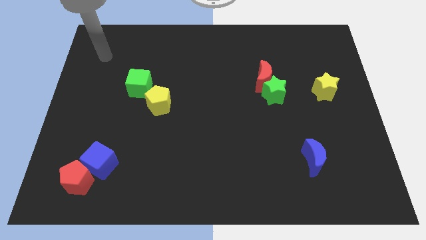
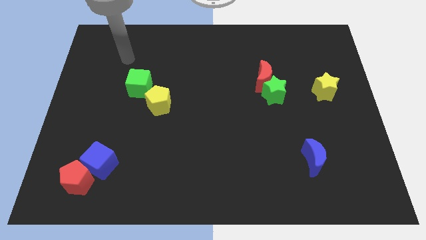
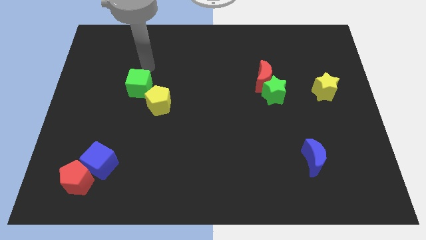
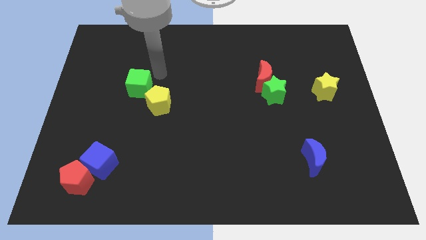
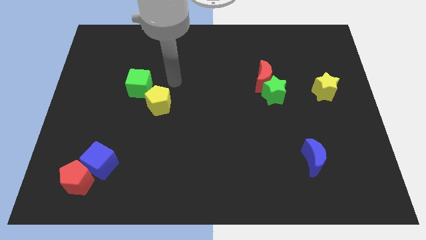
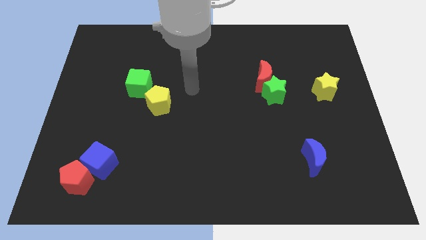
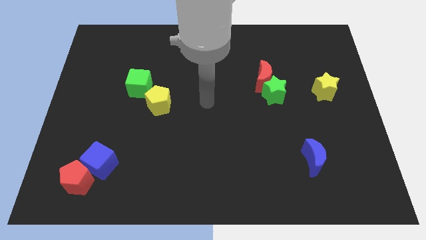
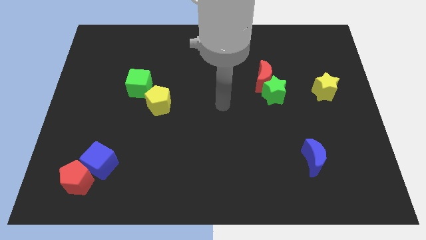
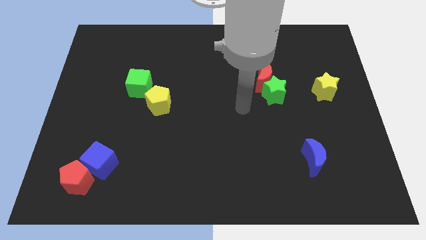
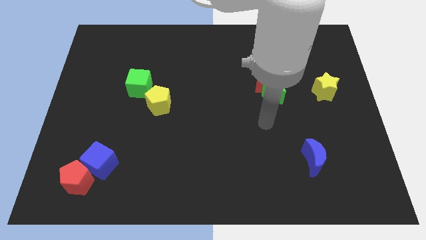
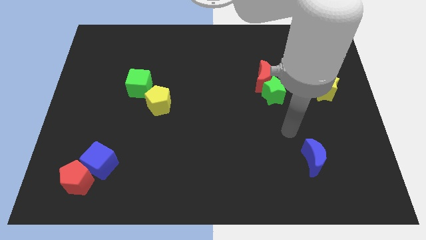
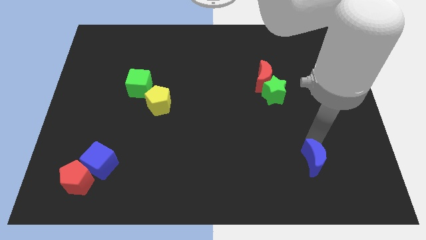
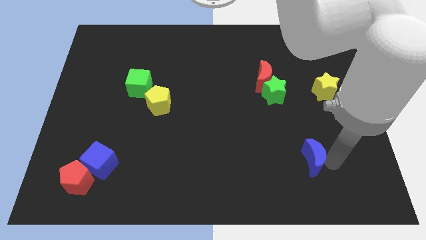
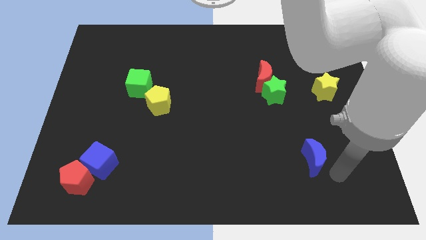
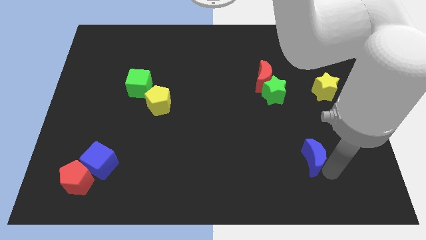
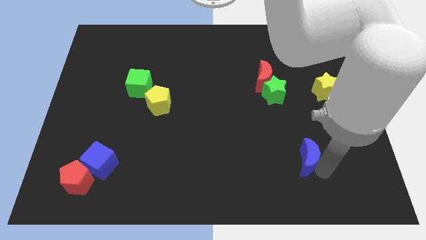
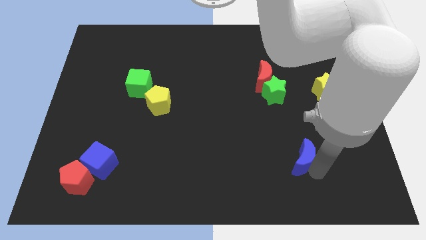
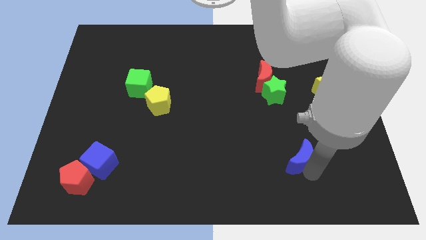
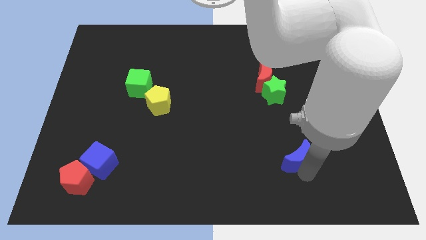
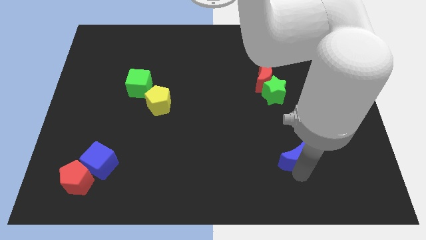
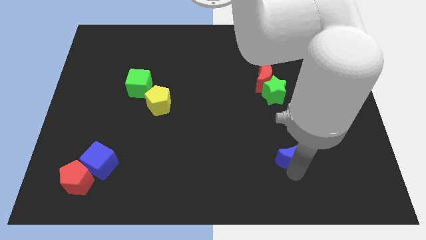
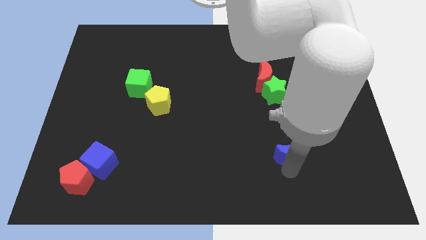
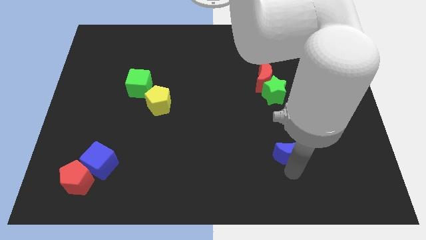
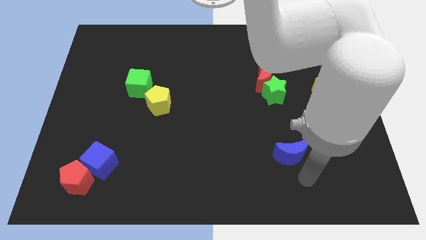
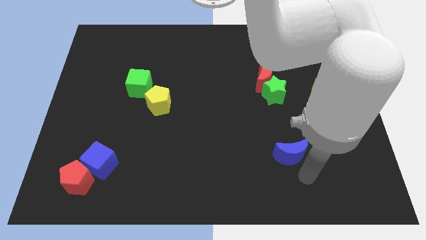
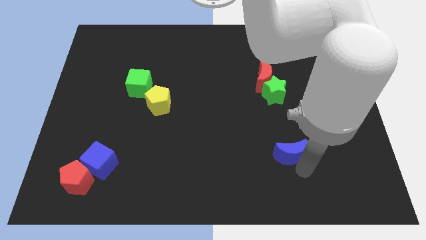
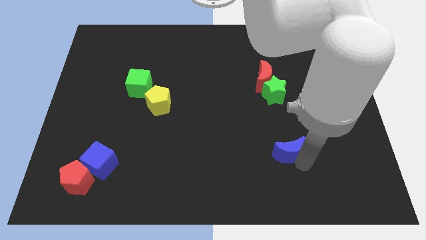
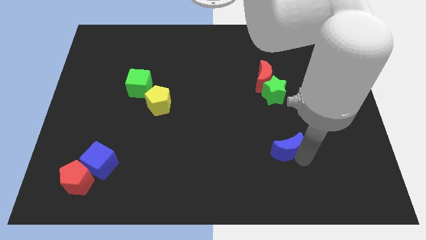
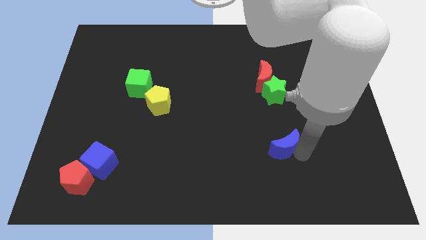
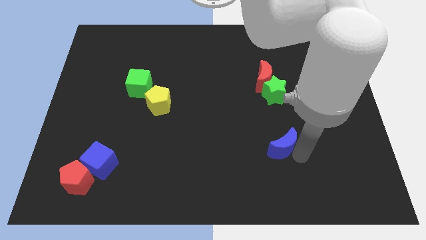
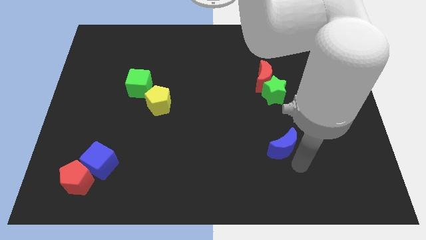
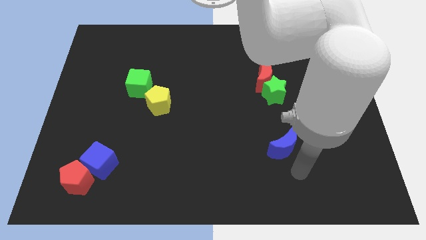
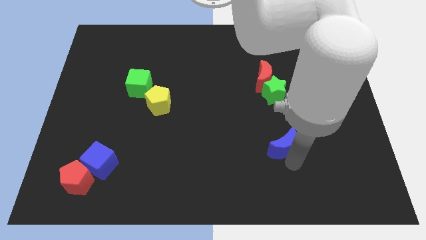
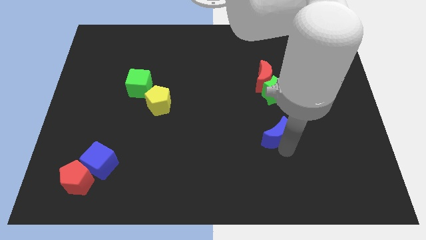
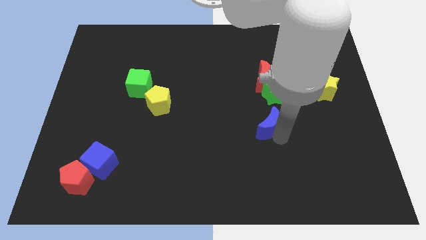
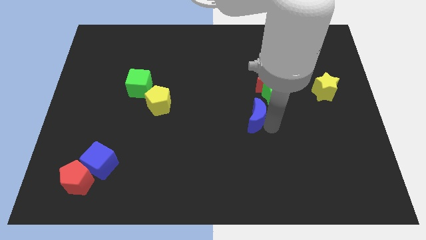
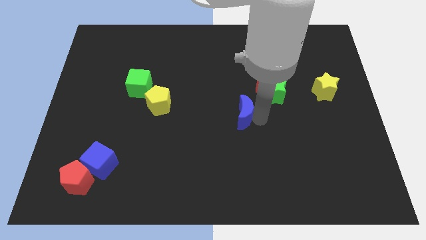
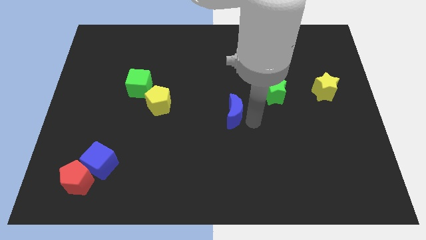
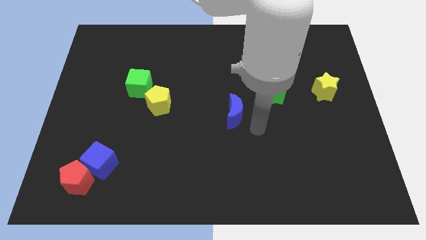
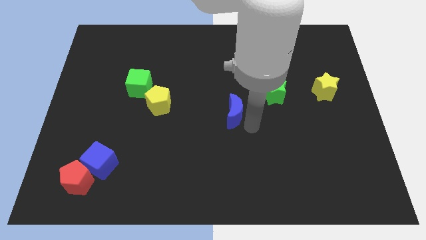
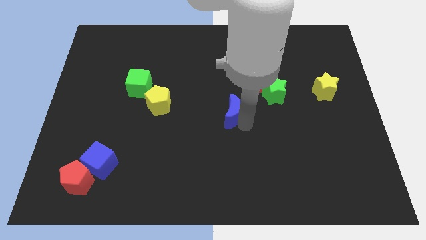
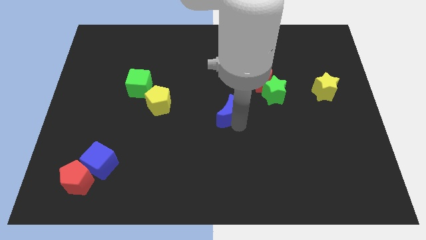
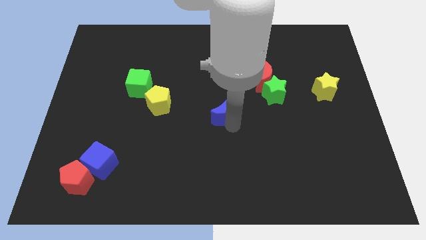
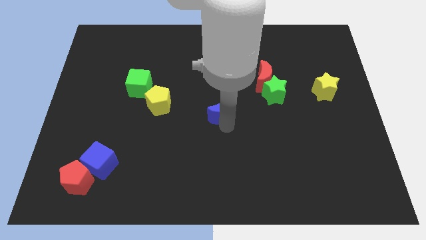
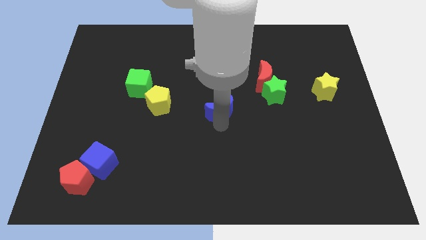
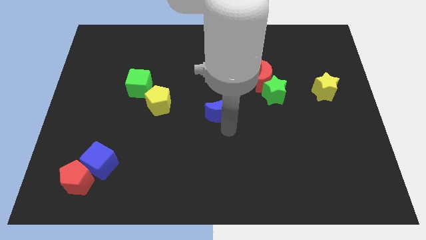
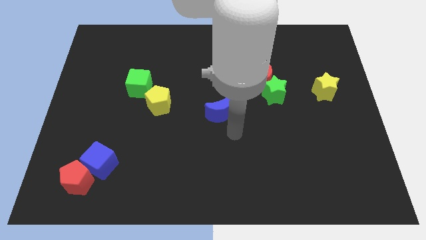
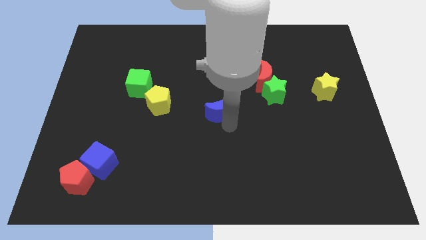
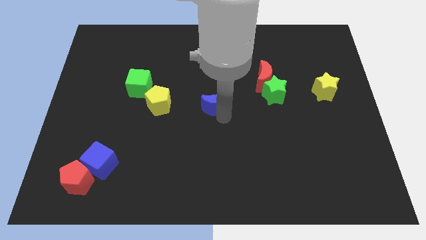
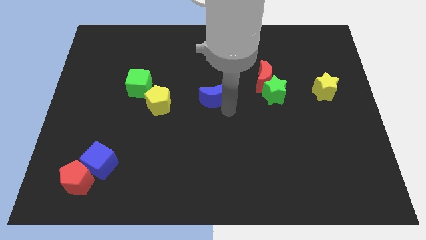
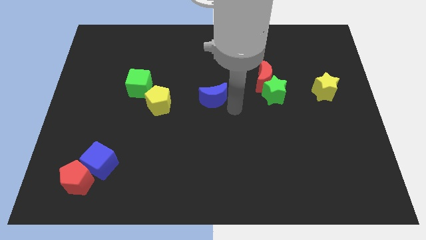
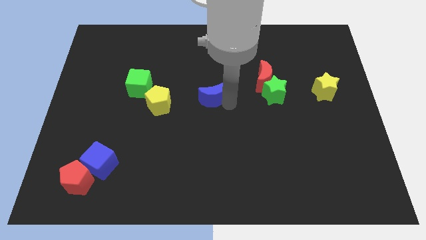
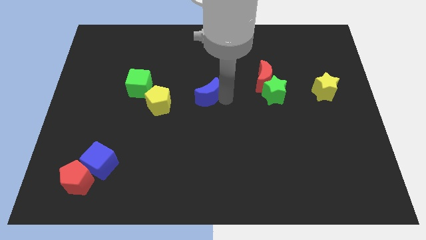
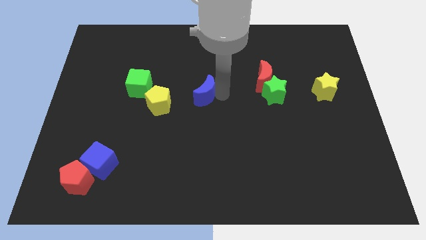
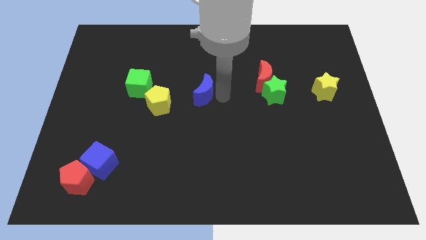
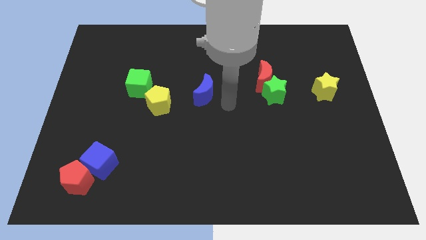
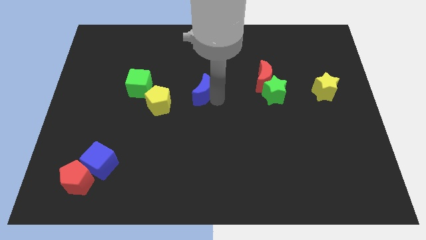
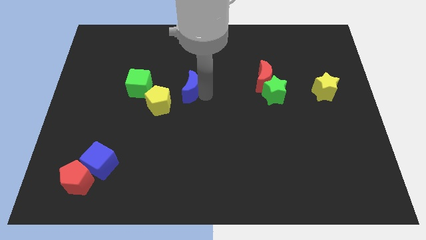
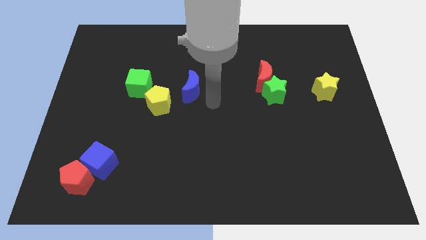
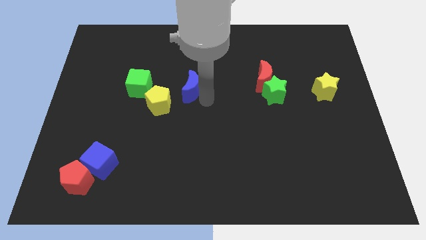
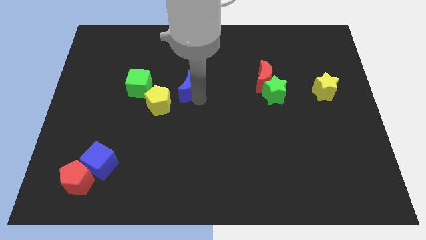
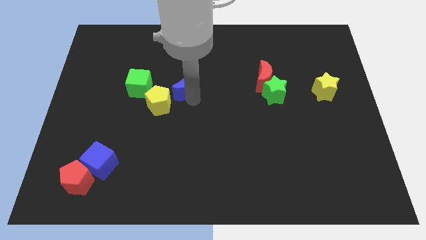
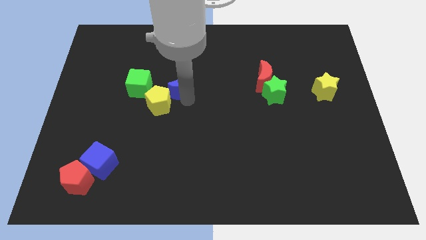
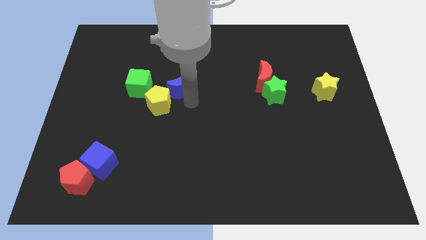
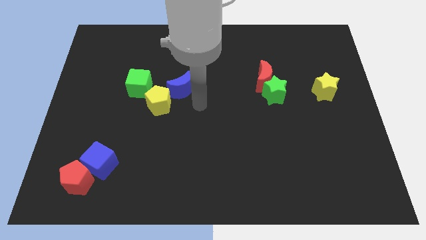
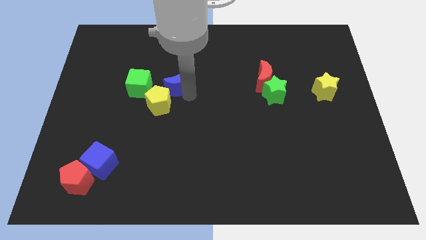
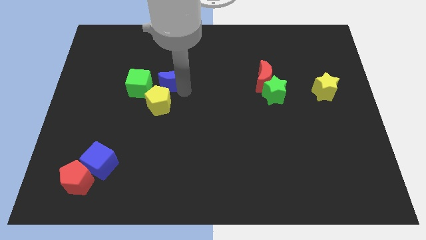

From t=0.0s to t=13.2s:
put the blue moon to the top right of the green cube
